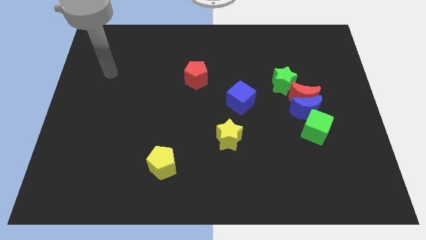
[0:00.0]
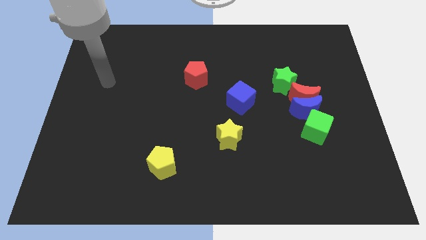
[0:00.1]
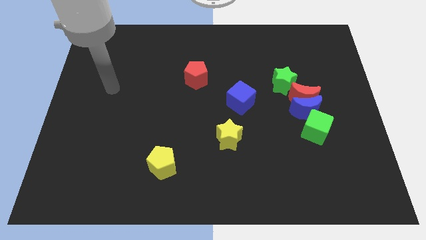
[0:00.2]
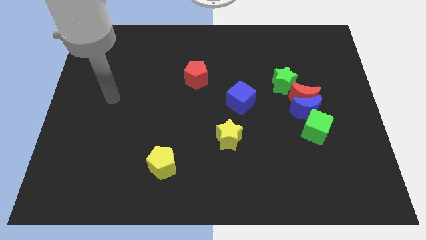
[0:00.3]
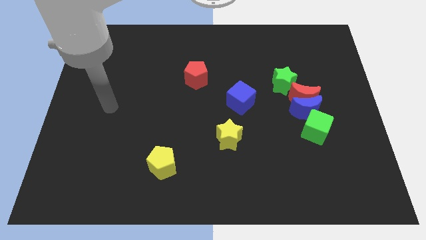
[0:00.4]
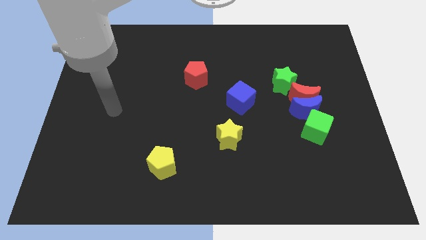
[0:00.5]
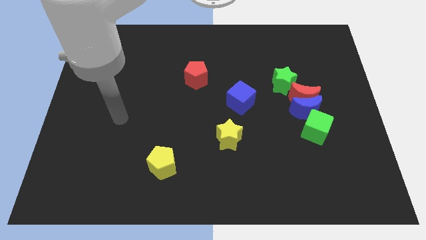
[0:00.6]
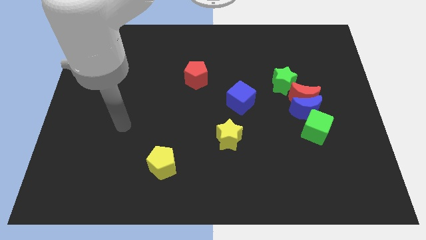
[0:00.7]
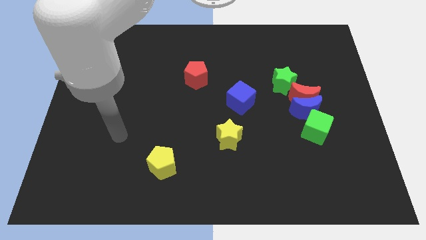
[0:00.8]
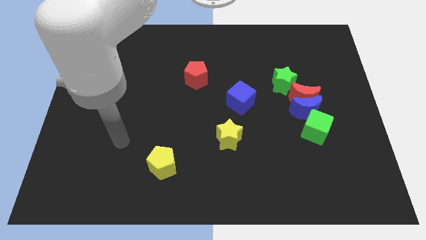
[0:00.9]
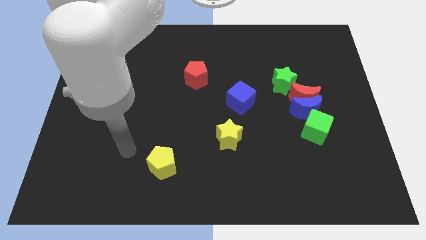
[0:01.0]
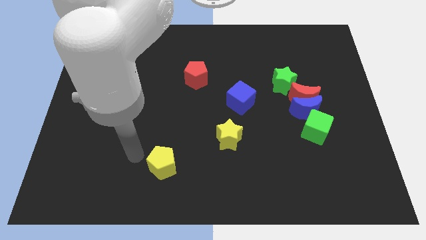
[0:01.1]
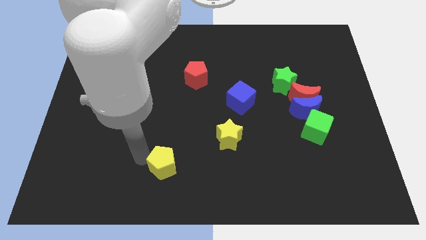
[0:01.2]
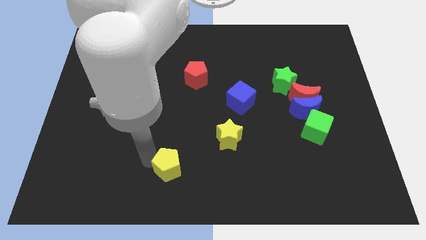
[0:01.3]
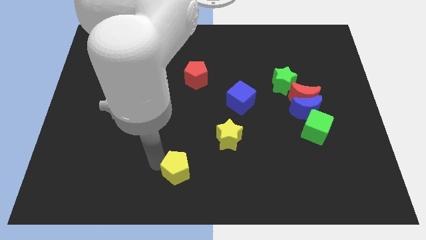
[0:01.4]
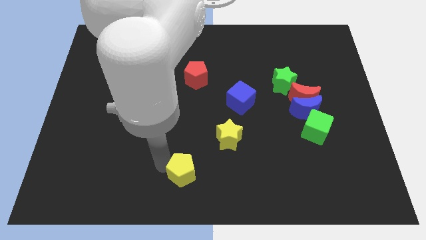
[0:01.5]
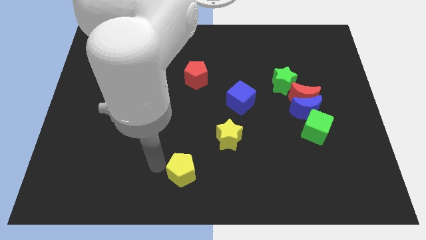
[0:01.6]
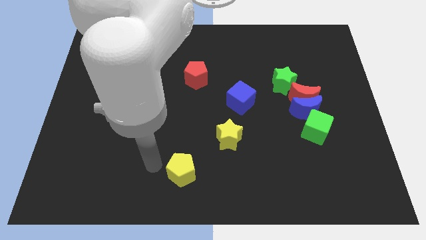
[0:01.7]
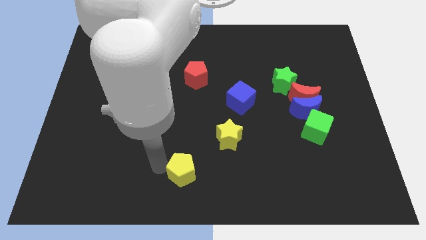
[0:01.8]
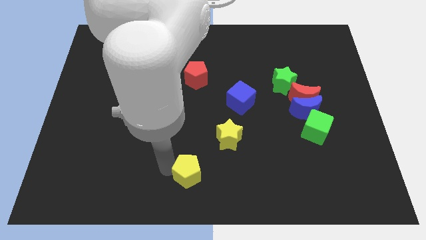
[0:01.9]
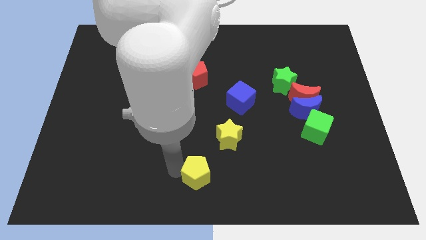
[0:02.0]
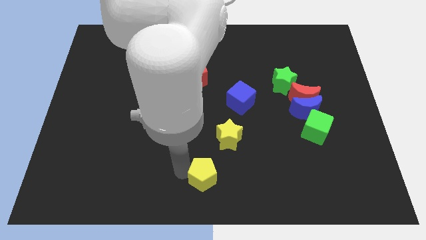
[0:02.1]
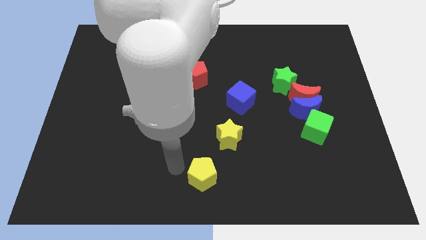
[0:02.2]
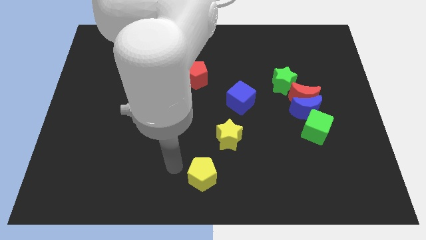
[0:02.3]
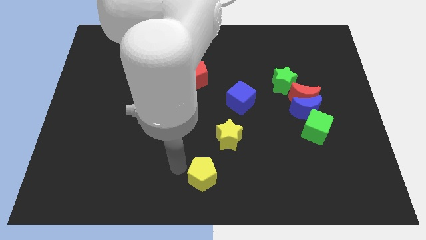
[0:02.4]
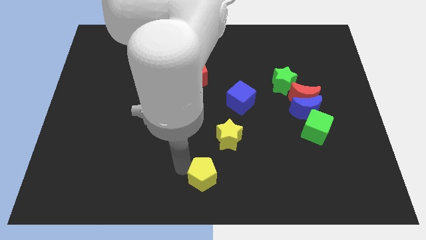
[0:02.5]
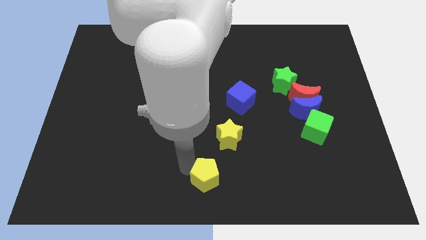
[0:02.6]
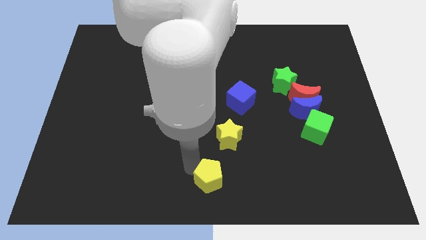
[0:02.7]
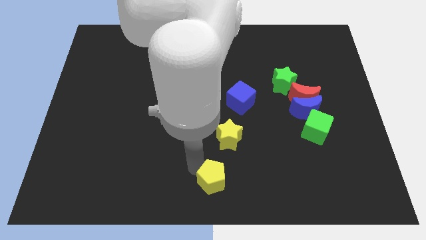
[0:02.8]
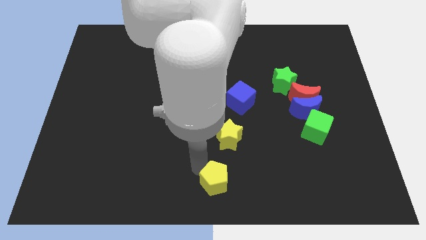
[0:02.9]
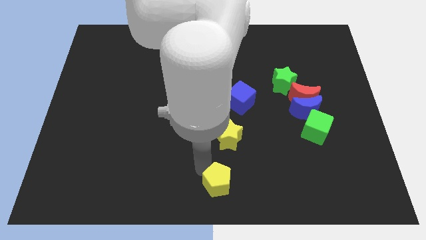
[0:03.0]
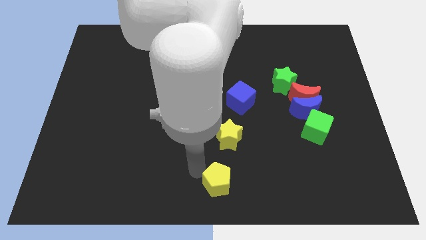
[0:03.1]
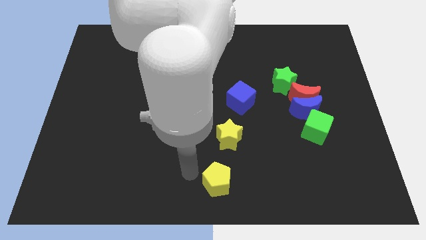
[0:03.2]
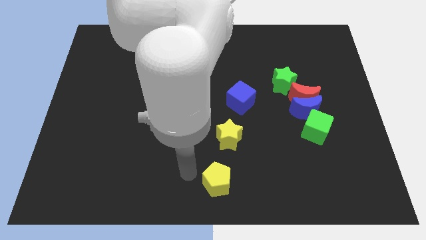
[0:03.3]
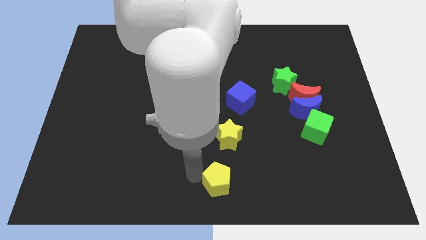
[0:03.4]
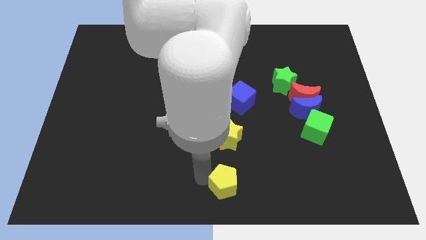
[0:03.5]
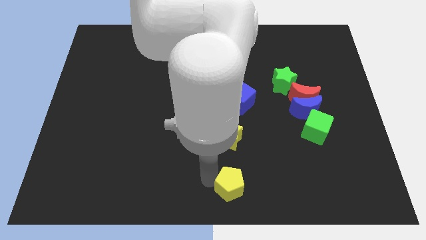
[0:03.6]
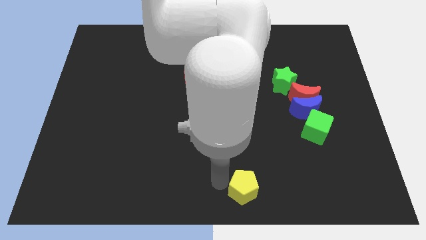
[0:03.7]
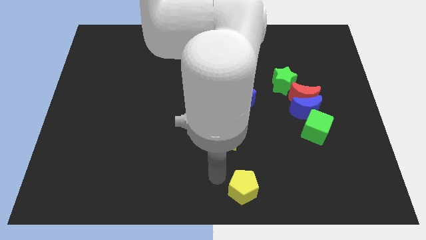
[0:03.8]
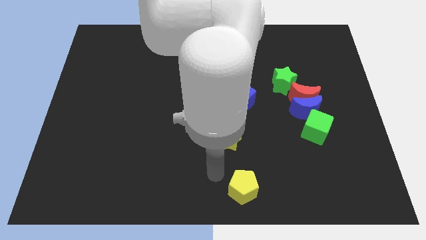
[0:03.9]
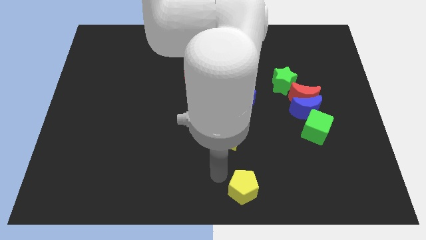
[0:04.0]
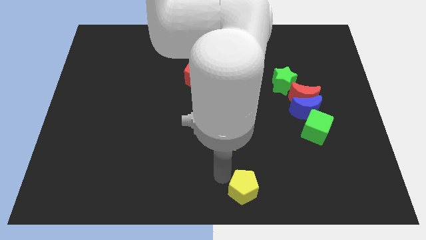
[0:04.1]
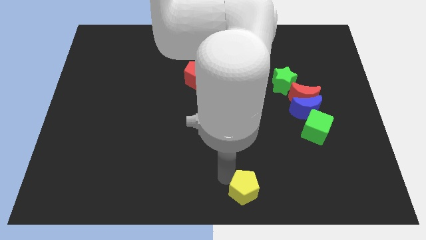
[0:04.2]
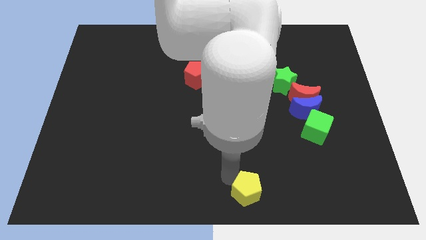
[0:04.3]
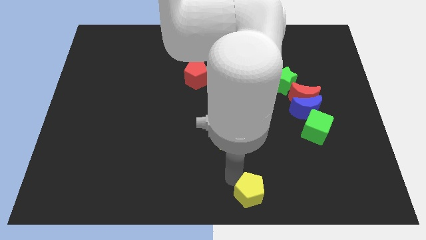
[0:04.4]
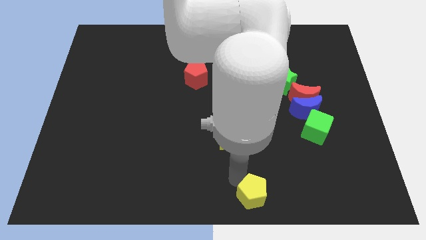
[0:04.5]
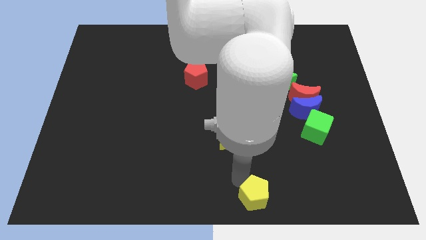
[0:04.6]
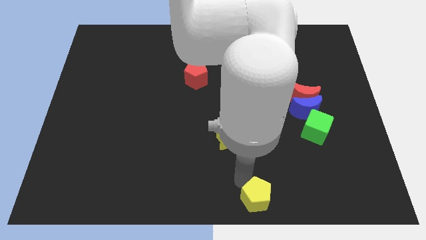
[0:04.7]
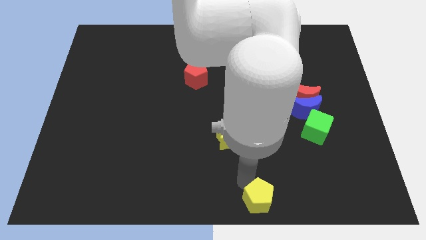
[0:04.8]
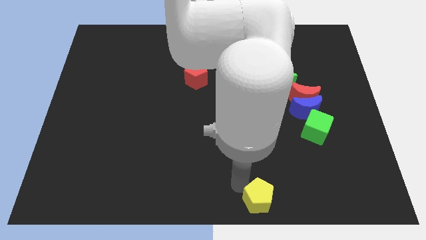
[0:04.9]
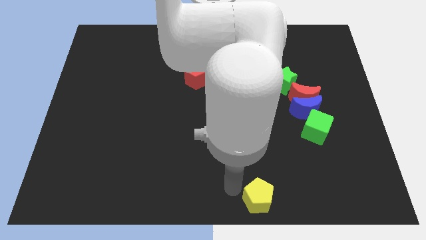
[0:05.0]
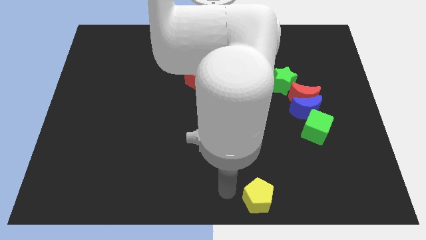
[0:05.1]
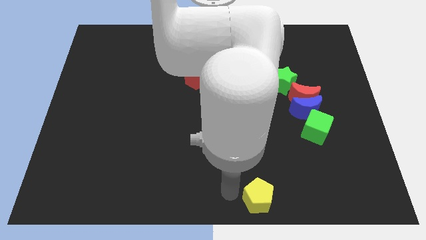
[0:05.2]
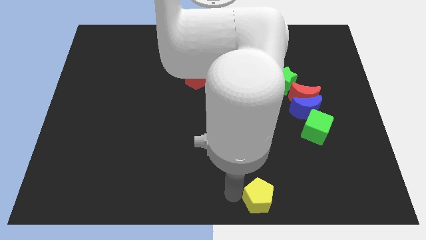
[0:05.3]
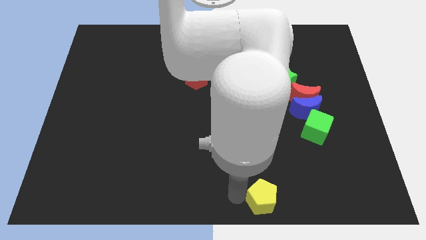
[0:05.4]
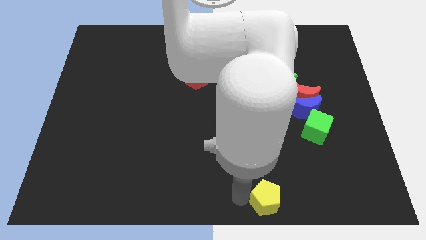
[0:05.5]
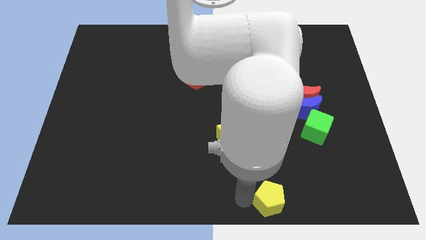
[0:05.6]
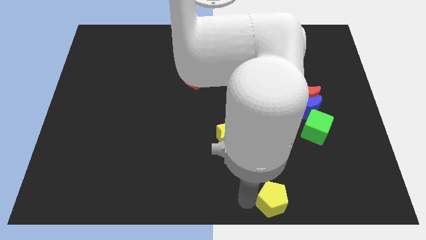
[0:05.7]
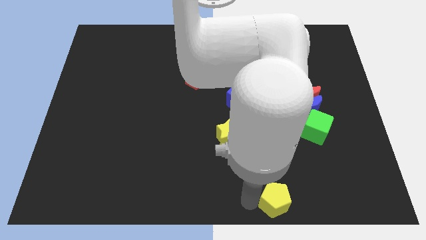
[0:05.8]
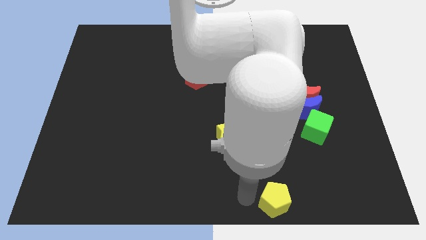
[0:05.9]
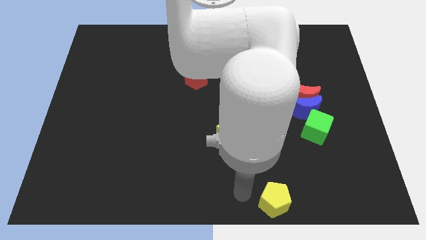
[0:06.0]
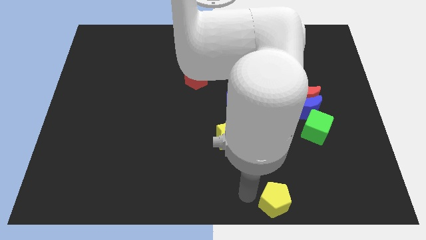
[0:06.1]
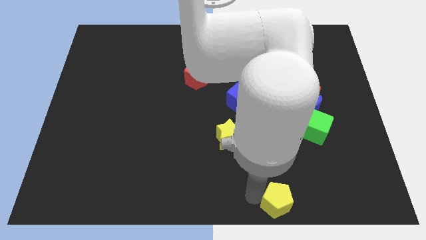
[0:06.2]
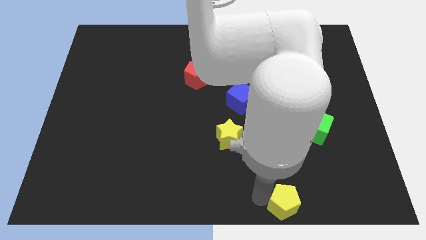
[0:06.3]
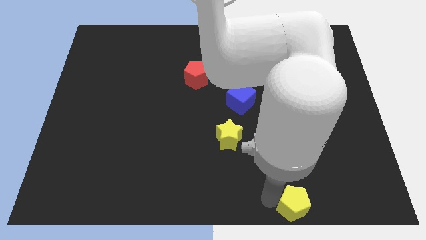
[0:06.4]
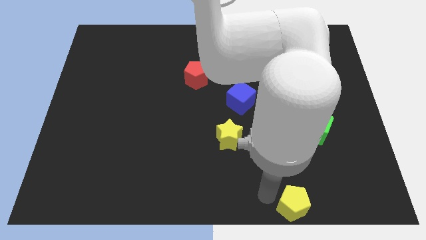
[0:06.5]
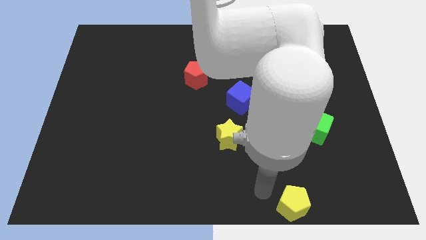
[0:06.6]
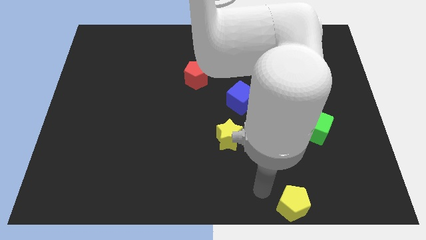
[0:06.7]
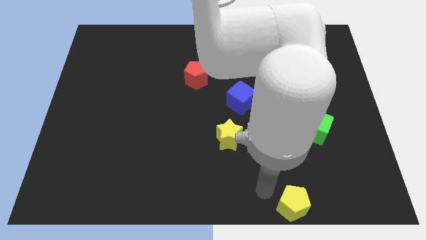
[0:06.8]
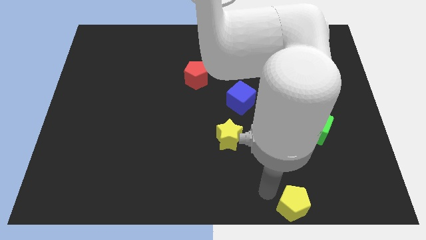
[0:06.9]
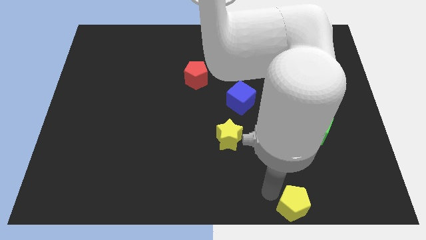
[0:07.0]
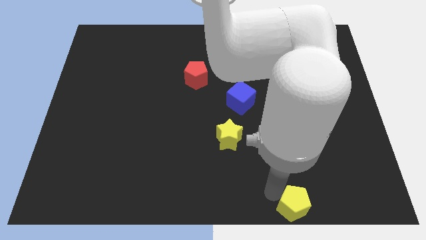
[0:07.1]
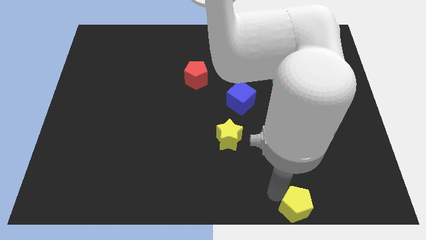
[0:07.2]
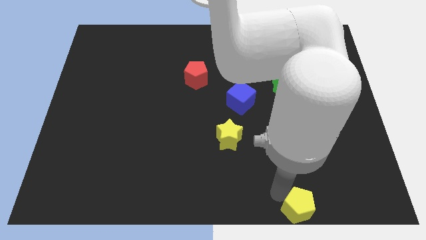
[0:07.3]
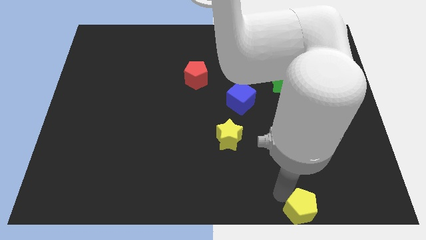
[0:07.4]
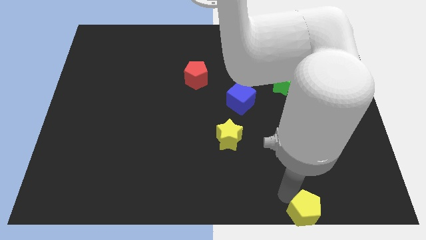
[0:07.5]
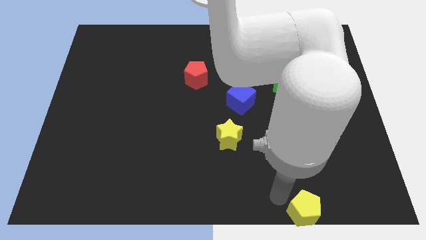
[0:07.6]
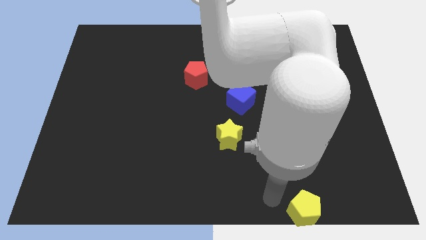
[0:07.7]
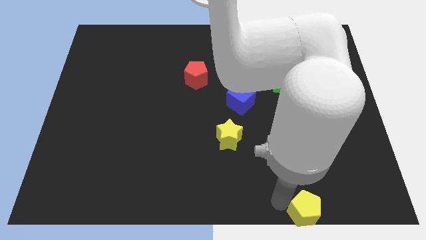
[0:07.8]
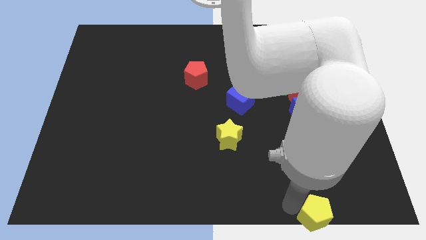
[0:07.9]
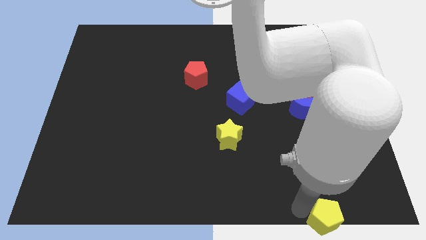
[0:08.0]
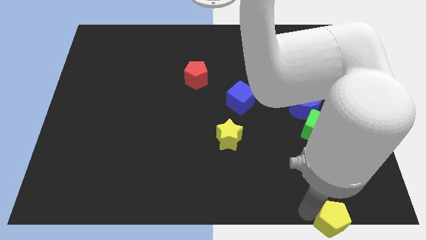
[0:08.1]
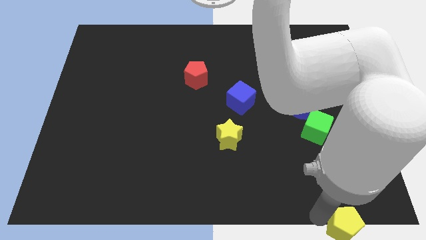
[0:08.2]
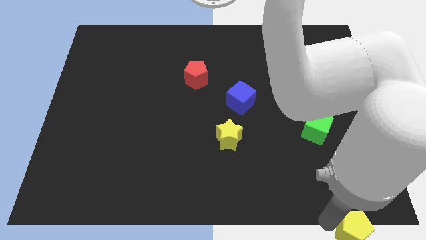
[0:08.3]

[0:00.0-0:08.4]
move the yellow pentagon to the bottom right of the board
